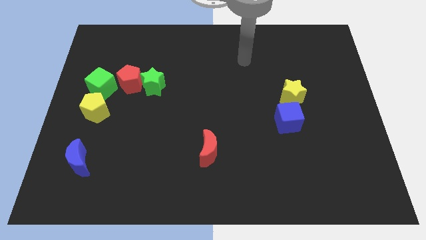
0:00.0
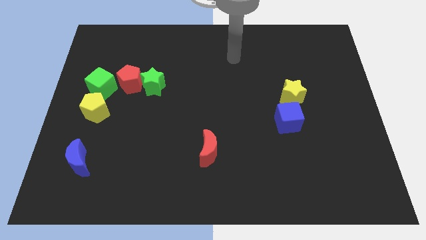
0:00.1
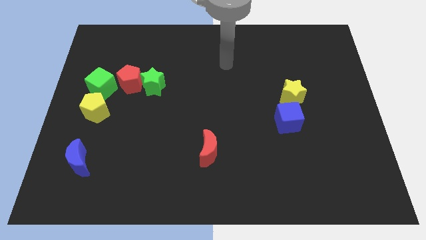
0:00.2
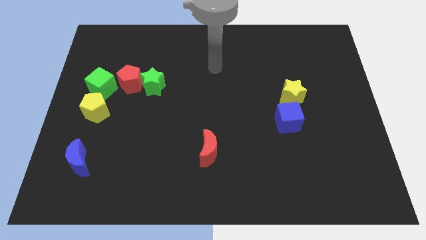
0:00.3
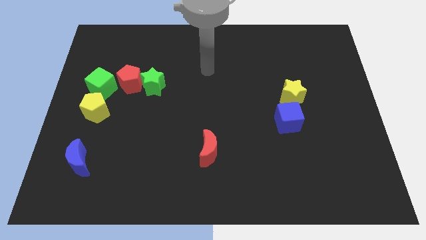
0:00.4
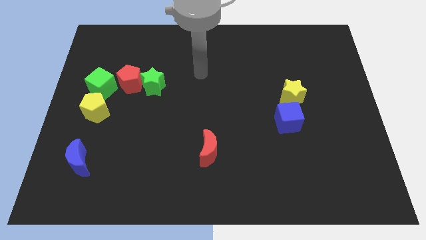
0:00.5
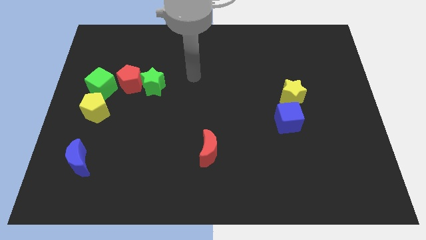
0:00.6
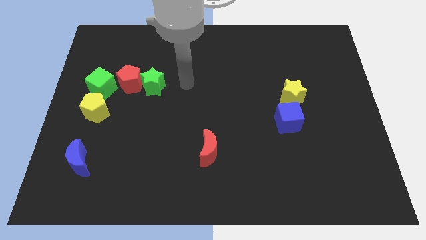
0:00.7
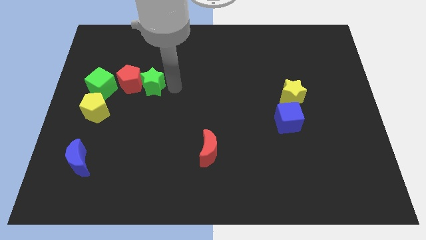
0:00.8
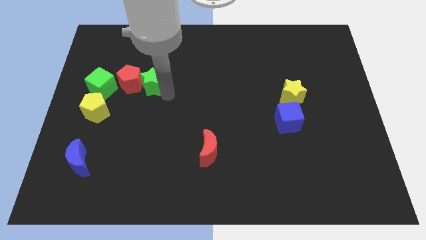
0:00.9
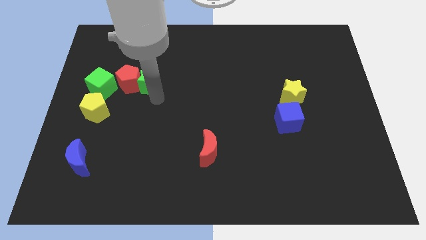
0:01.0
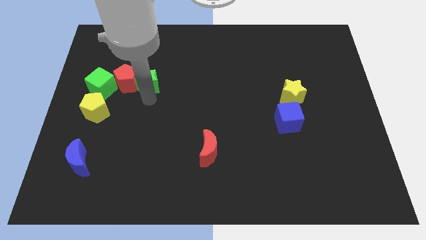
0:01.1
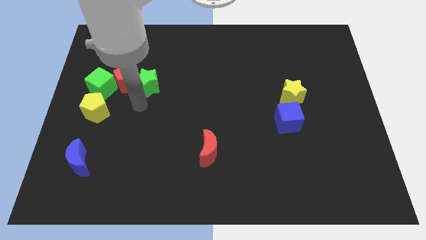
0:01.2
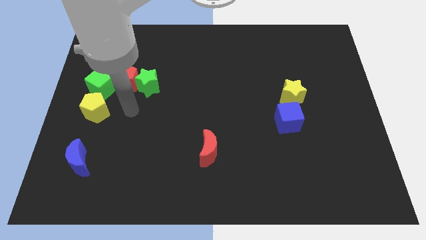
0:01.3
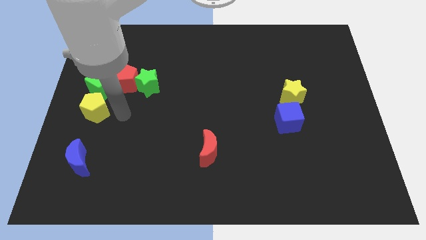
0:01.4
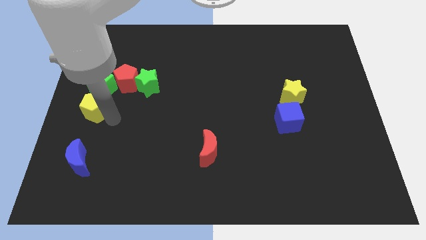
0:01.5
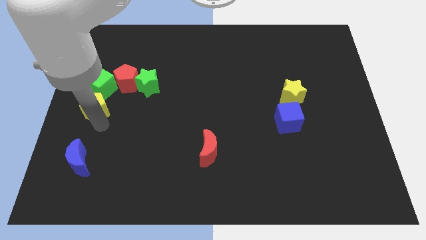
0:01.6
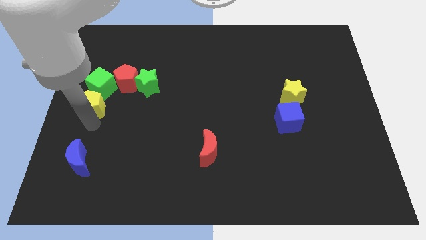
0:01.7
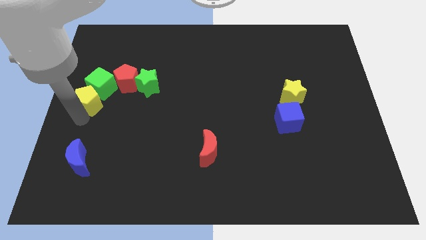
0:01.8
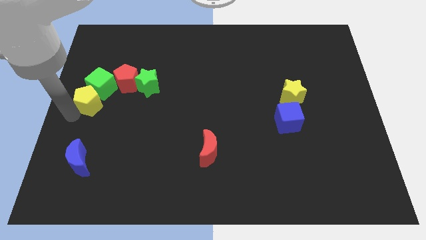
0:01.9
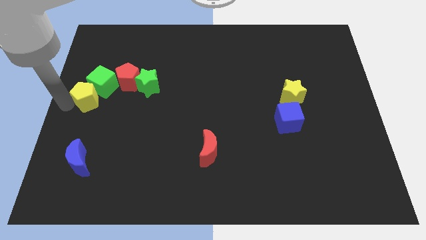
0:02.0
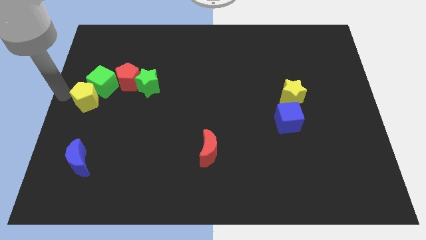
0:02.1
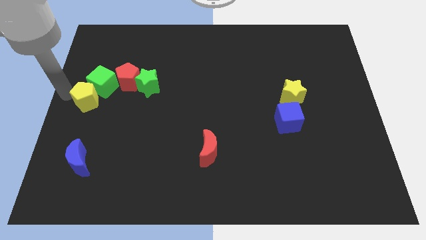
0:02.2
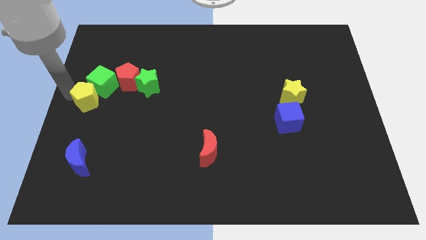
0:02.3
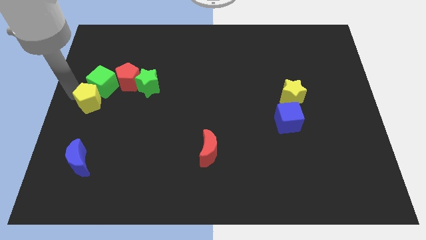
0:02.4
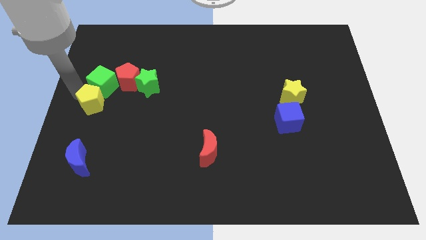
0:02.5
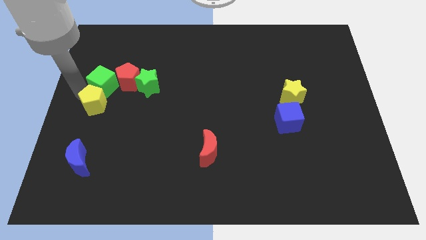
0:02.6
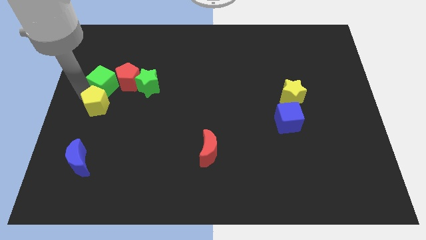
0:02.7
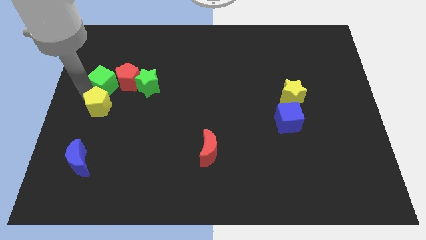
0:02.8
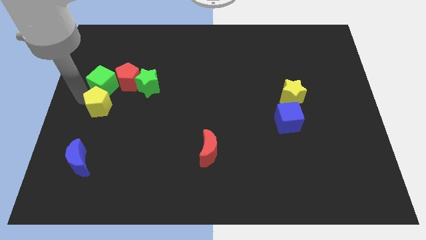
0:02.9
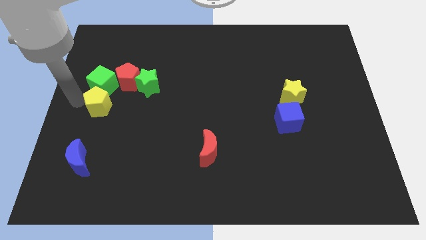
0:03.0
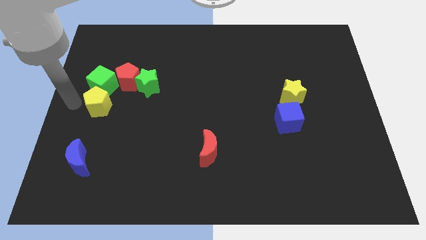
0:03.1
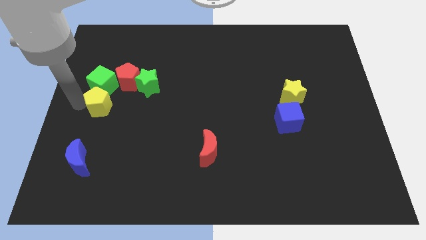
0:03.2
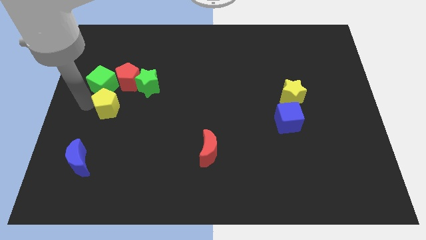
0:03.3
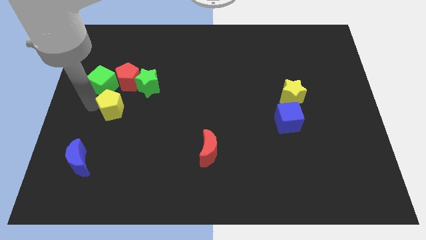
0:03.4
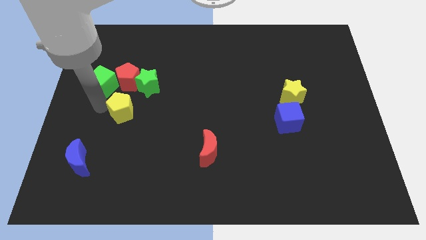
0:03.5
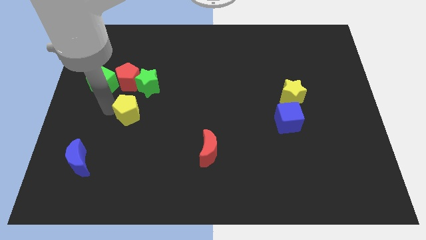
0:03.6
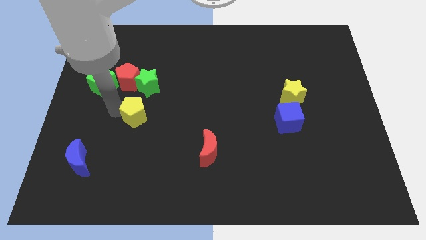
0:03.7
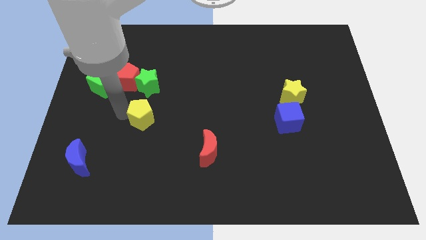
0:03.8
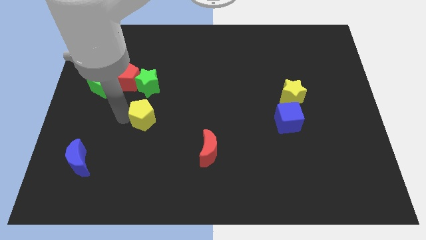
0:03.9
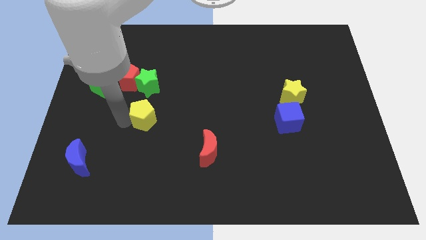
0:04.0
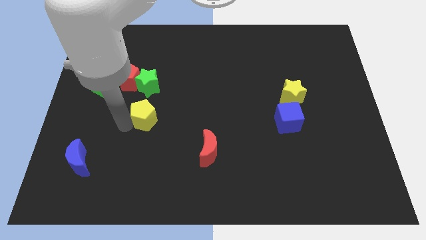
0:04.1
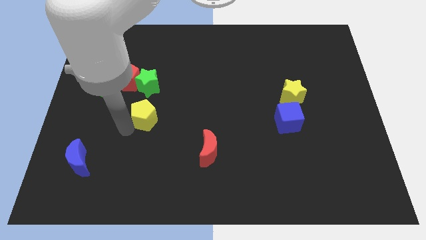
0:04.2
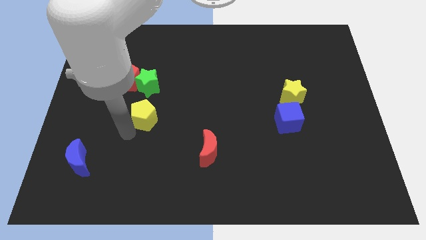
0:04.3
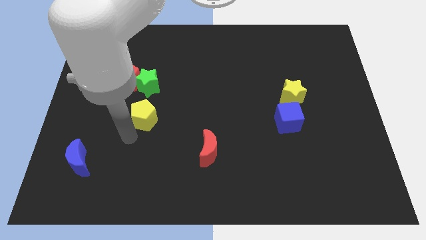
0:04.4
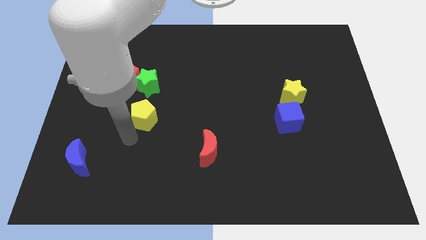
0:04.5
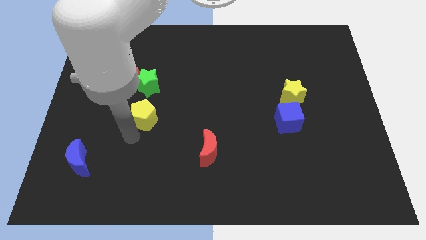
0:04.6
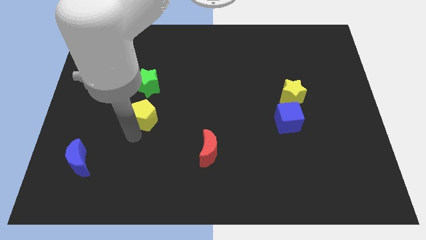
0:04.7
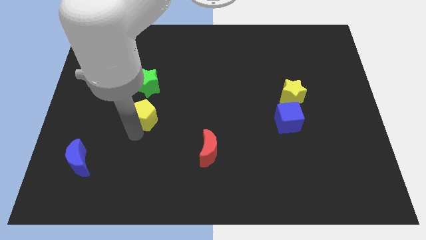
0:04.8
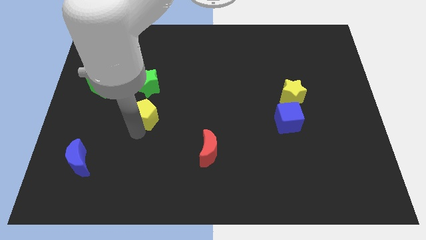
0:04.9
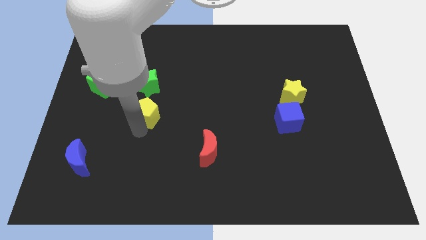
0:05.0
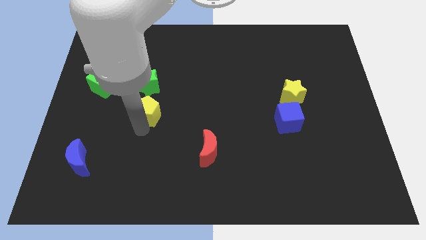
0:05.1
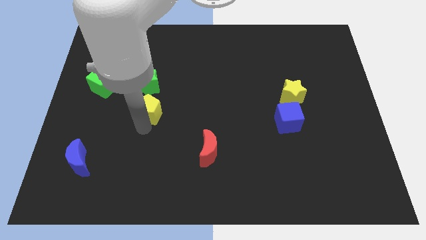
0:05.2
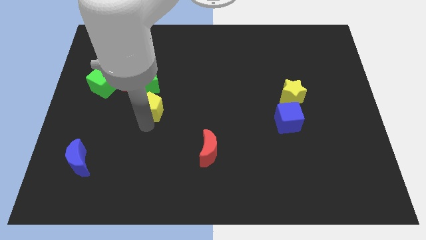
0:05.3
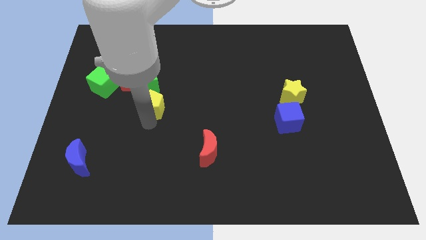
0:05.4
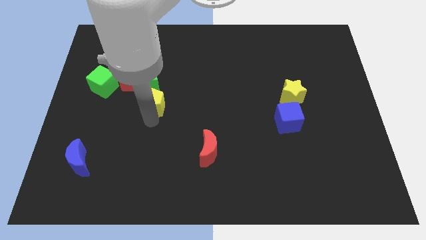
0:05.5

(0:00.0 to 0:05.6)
push the yellow pentagon diagonally upwards and to the right a little bit

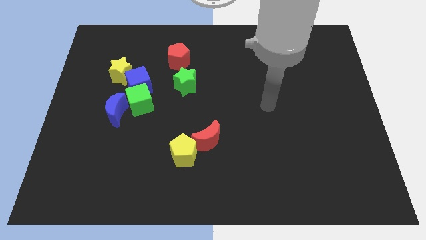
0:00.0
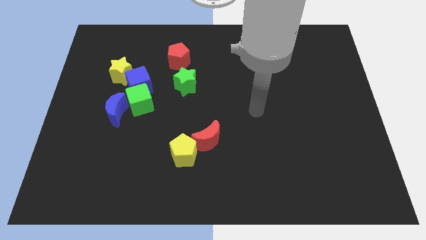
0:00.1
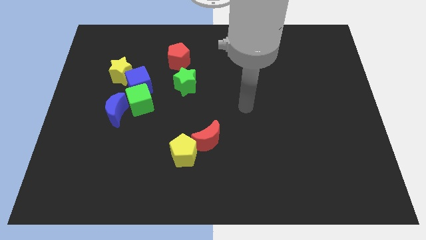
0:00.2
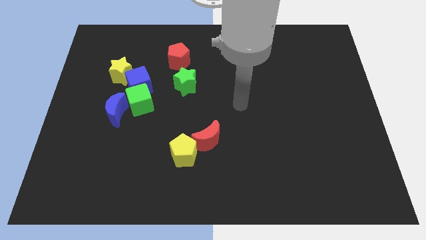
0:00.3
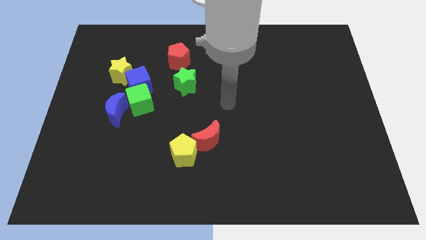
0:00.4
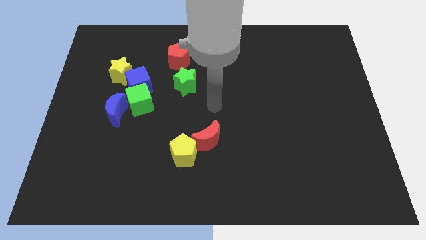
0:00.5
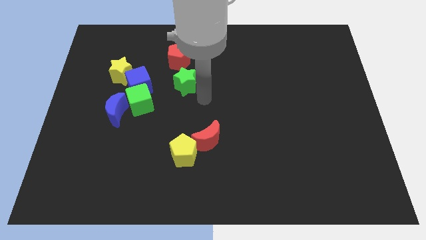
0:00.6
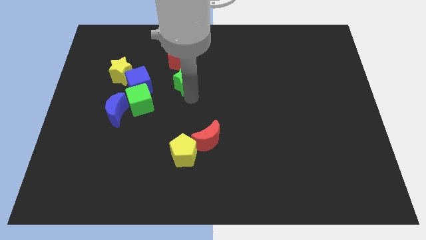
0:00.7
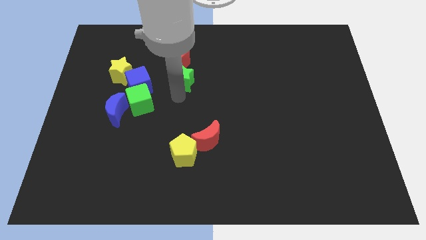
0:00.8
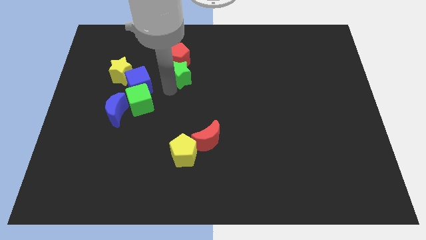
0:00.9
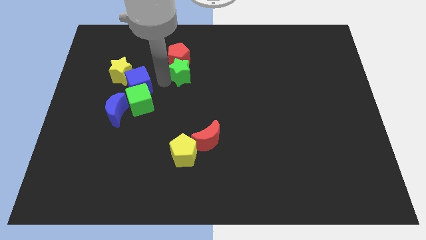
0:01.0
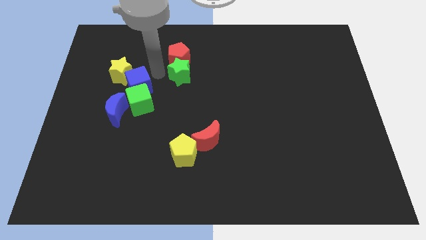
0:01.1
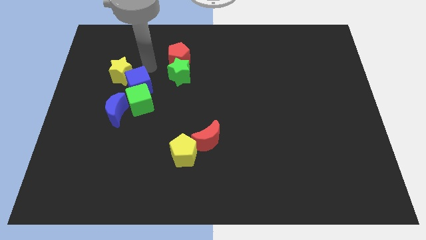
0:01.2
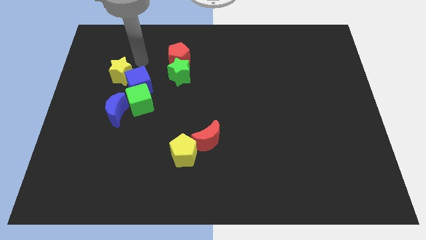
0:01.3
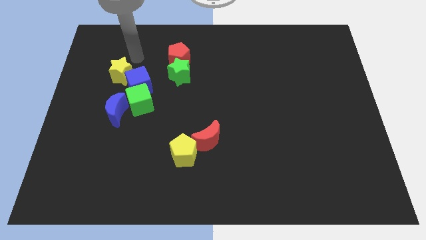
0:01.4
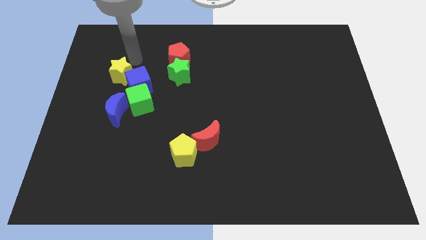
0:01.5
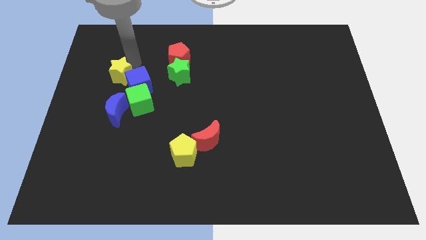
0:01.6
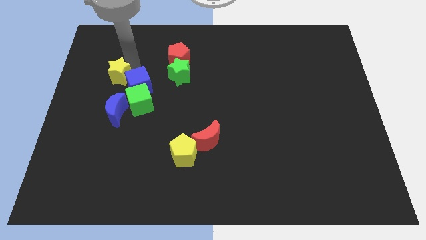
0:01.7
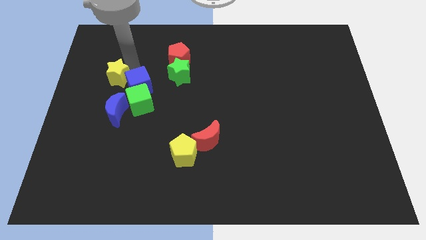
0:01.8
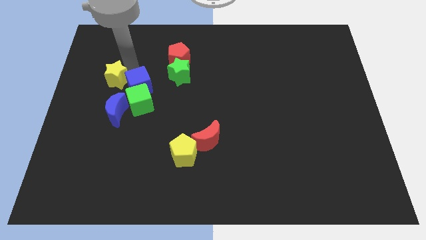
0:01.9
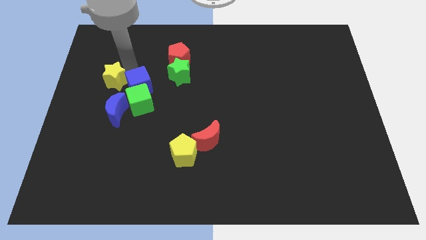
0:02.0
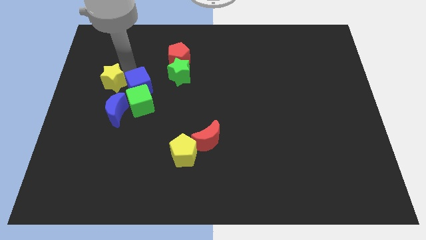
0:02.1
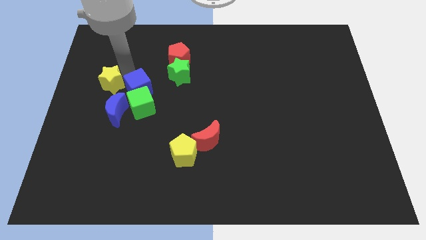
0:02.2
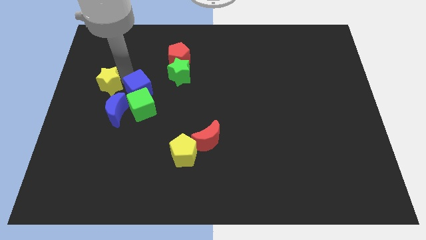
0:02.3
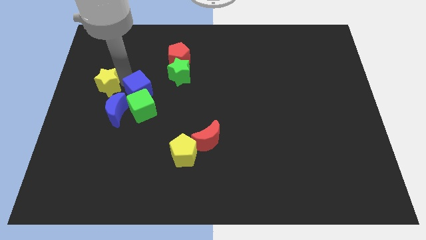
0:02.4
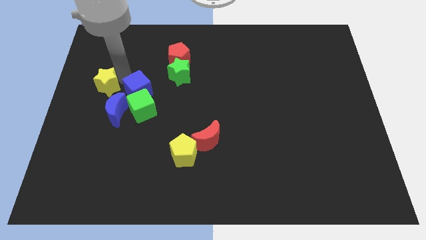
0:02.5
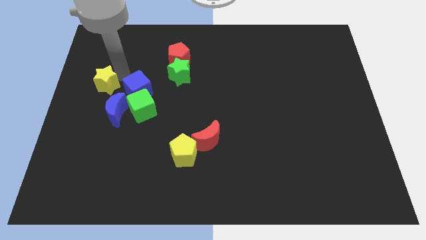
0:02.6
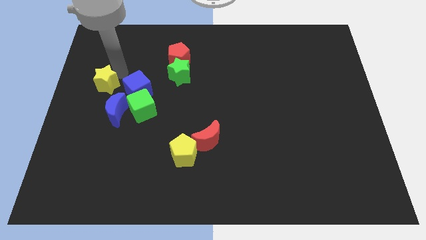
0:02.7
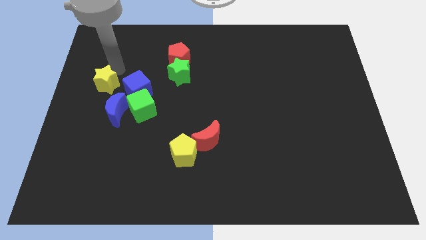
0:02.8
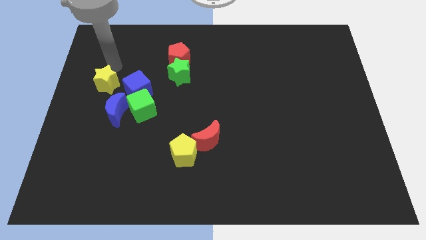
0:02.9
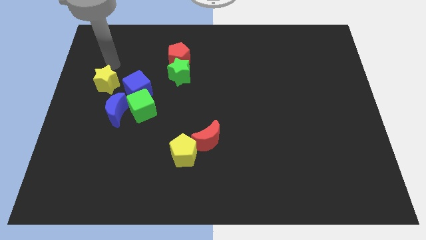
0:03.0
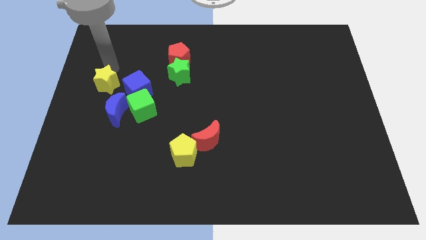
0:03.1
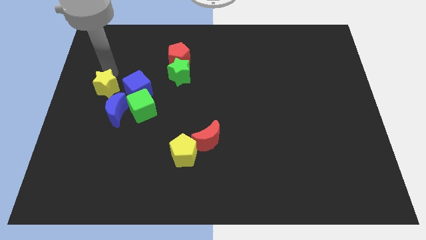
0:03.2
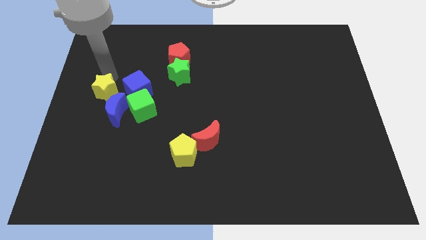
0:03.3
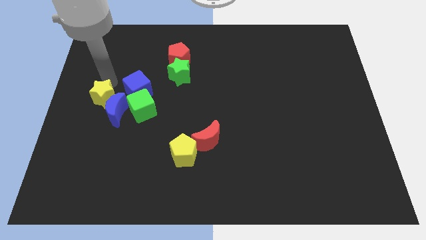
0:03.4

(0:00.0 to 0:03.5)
push the yellow star downwards slightly
